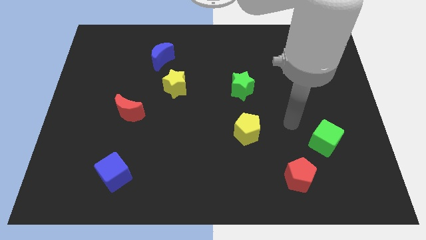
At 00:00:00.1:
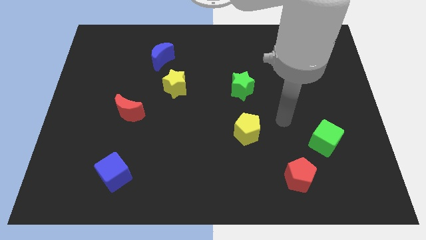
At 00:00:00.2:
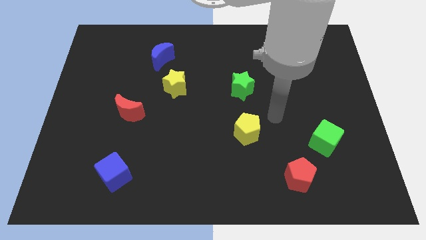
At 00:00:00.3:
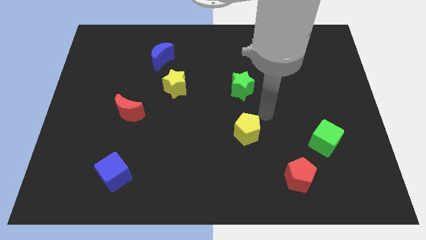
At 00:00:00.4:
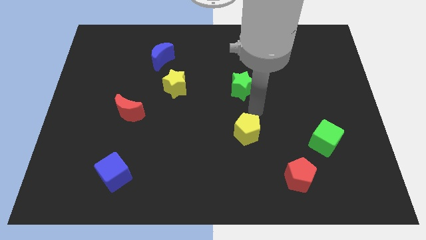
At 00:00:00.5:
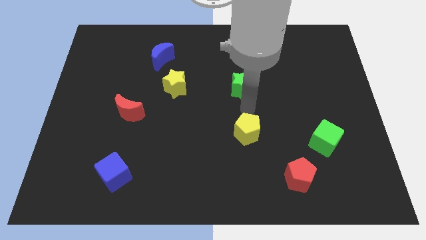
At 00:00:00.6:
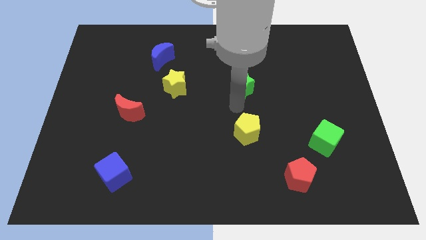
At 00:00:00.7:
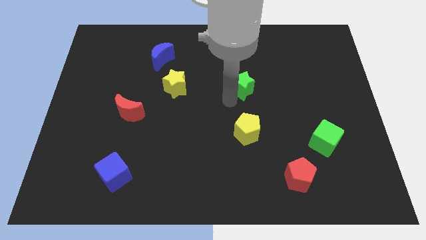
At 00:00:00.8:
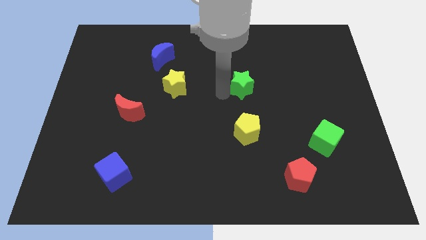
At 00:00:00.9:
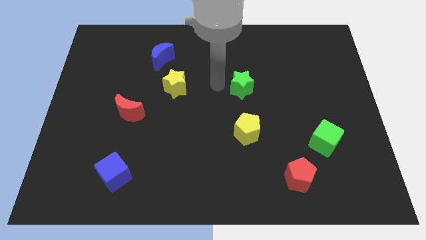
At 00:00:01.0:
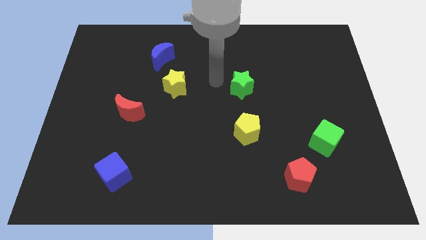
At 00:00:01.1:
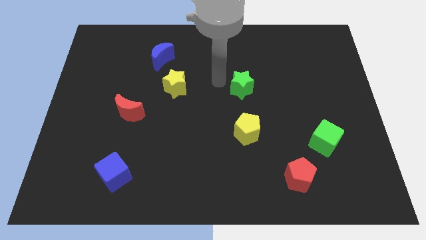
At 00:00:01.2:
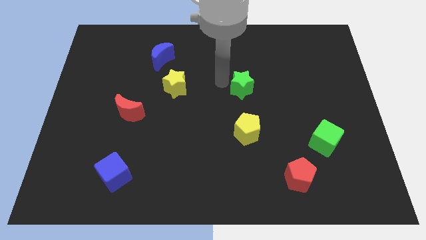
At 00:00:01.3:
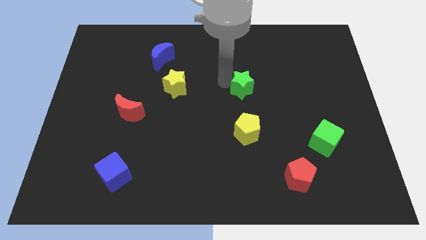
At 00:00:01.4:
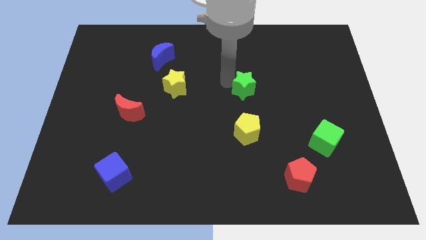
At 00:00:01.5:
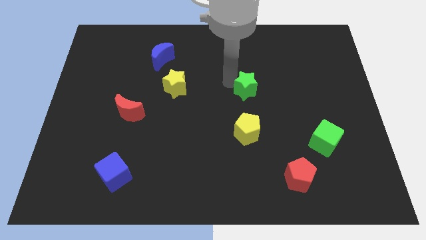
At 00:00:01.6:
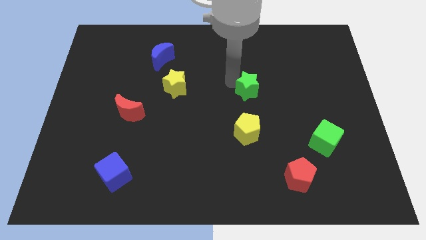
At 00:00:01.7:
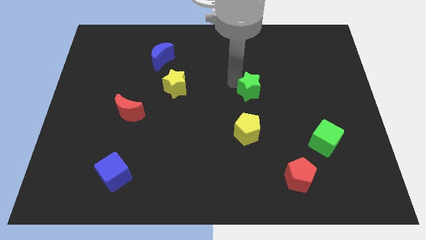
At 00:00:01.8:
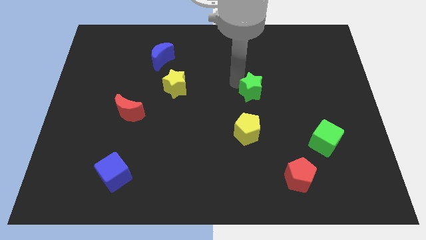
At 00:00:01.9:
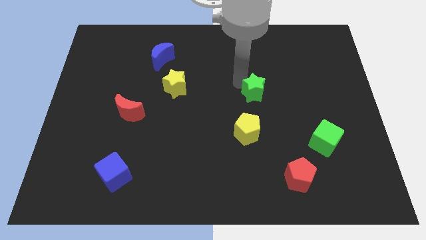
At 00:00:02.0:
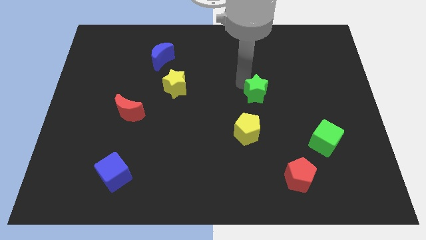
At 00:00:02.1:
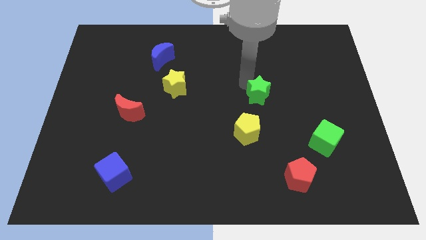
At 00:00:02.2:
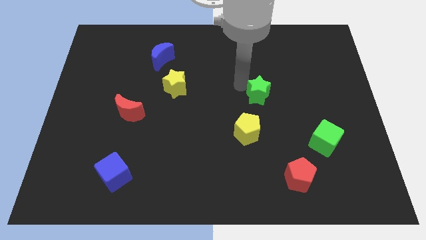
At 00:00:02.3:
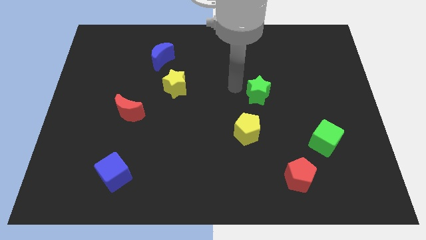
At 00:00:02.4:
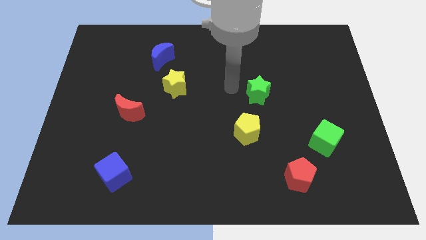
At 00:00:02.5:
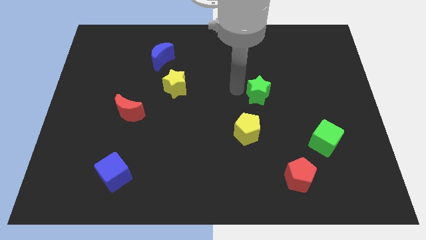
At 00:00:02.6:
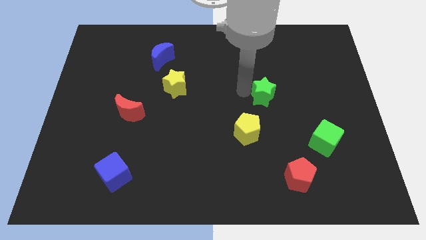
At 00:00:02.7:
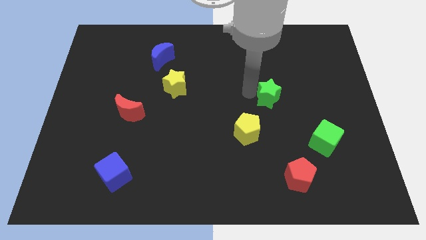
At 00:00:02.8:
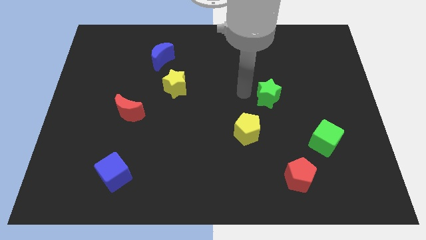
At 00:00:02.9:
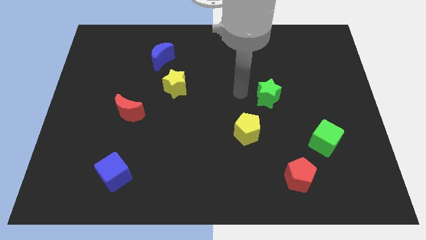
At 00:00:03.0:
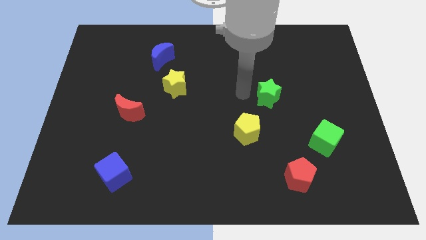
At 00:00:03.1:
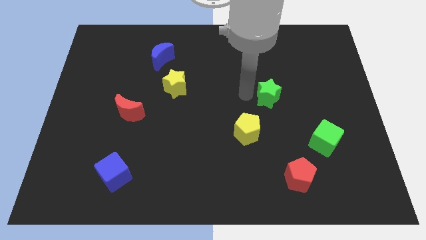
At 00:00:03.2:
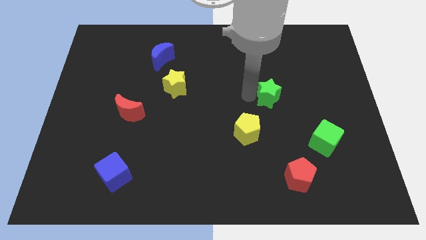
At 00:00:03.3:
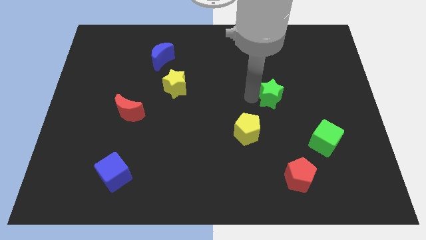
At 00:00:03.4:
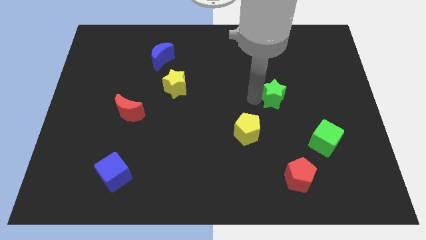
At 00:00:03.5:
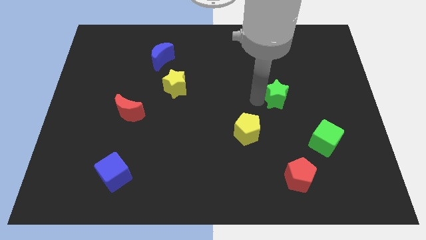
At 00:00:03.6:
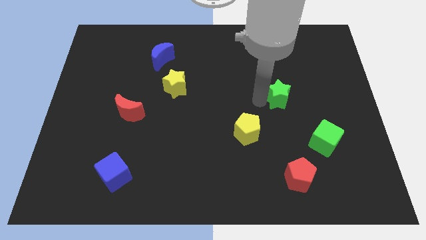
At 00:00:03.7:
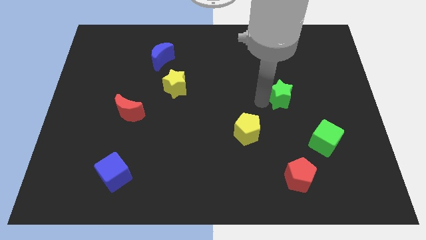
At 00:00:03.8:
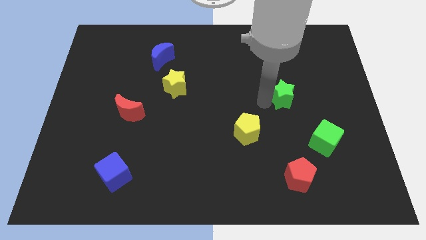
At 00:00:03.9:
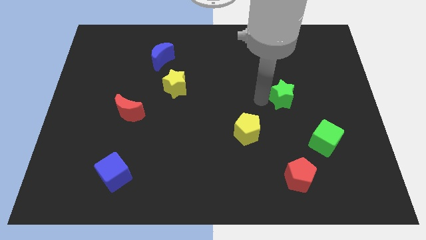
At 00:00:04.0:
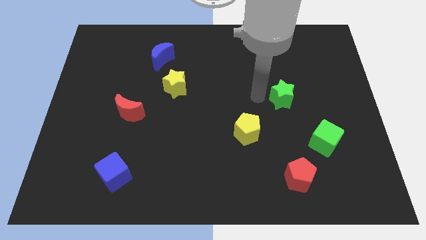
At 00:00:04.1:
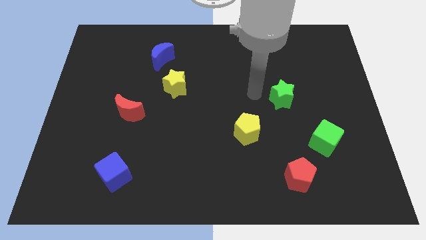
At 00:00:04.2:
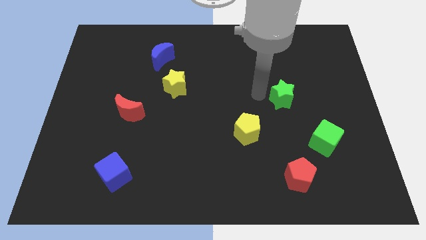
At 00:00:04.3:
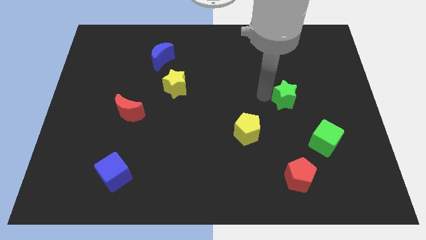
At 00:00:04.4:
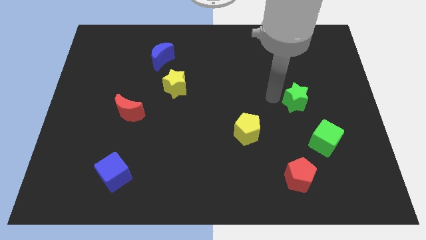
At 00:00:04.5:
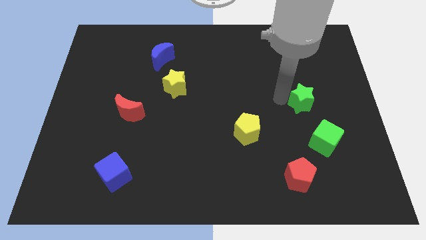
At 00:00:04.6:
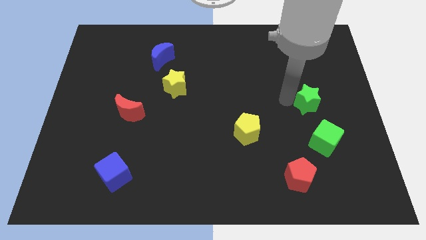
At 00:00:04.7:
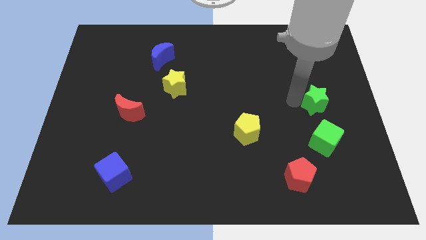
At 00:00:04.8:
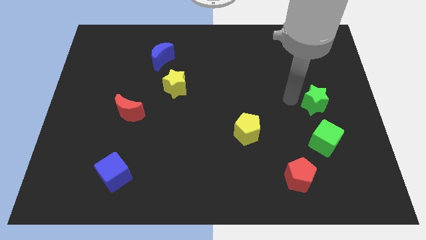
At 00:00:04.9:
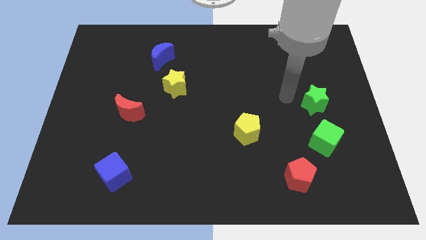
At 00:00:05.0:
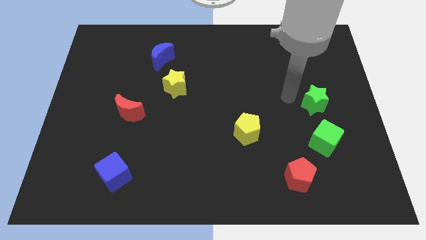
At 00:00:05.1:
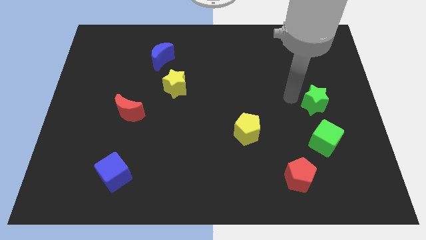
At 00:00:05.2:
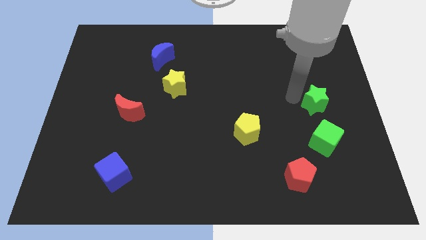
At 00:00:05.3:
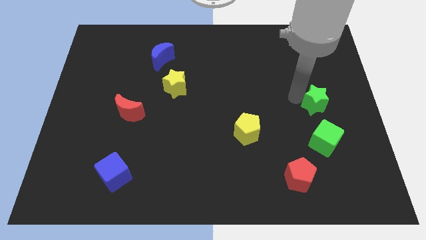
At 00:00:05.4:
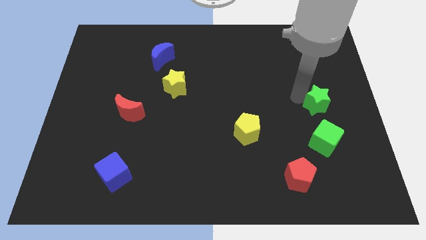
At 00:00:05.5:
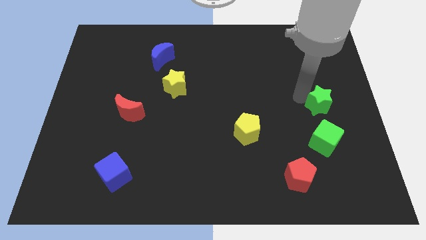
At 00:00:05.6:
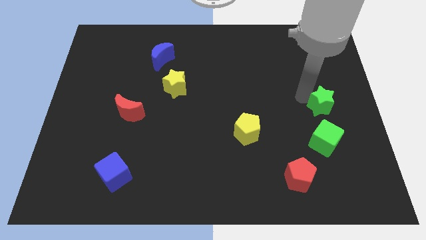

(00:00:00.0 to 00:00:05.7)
move the green star to the right side of the board

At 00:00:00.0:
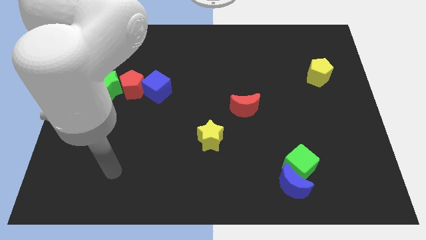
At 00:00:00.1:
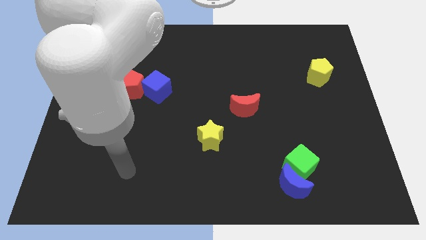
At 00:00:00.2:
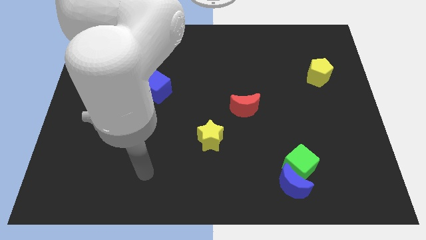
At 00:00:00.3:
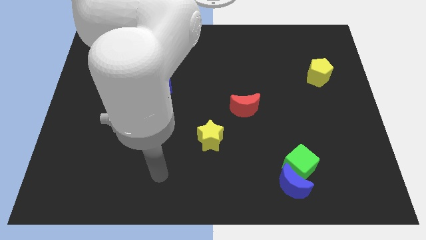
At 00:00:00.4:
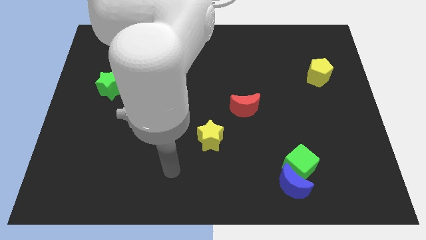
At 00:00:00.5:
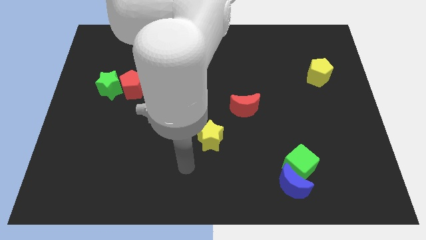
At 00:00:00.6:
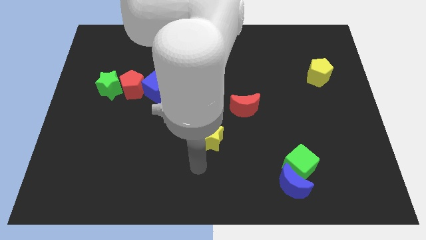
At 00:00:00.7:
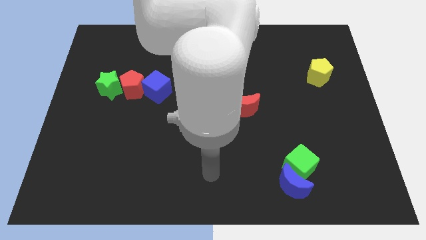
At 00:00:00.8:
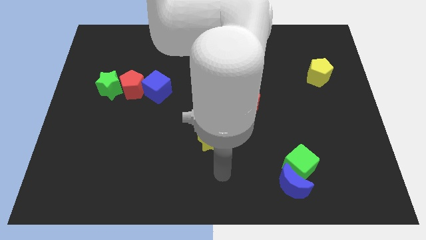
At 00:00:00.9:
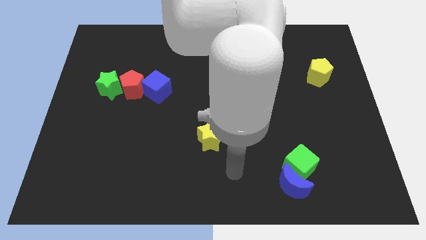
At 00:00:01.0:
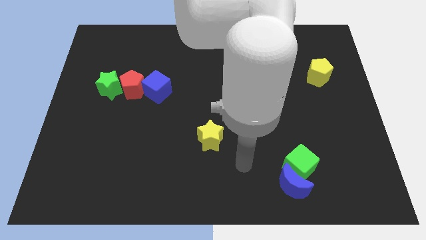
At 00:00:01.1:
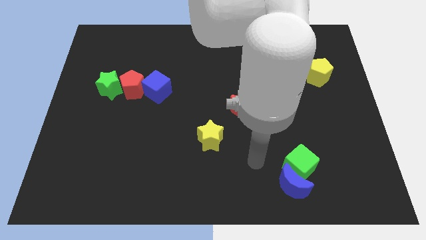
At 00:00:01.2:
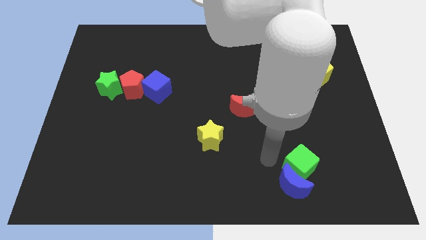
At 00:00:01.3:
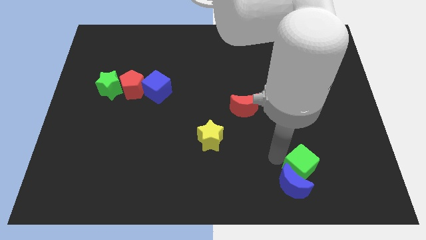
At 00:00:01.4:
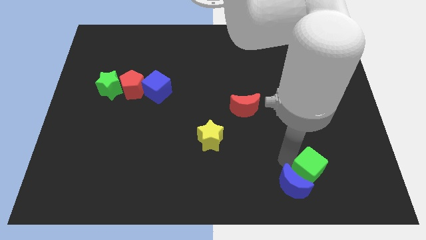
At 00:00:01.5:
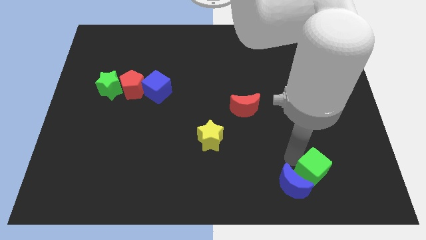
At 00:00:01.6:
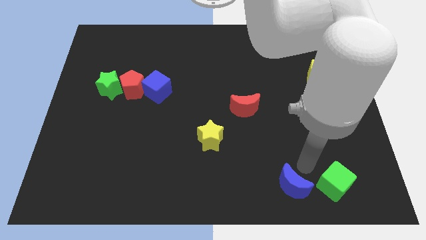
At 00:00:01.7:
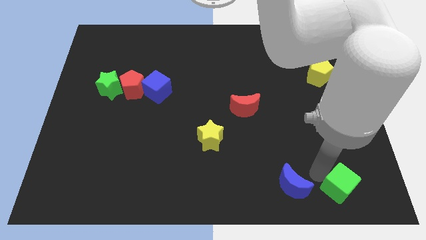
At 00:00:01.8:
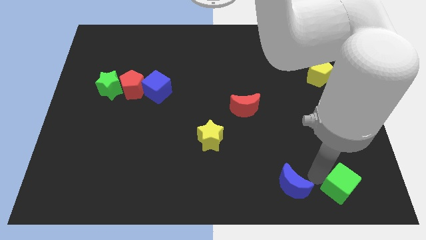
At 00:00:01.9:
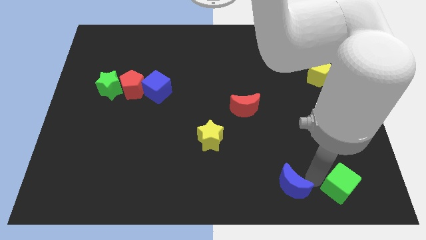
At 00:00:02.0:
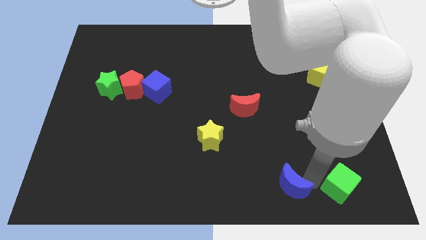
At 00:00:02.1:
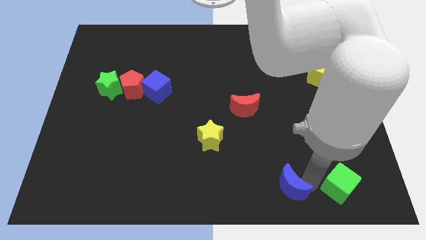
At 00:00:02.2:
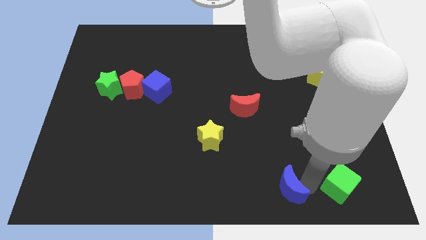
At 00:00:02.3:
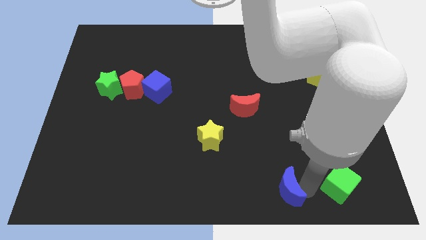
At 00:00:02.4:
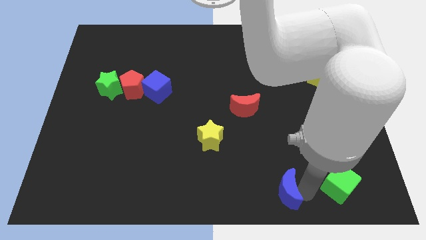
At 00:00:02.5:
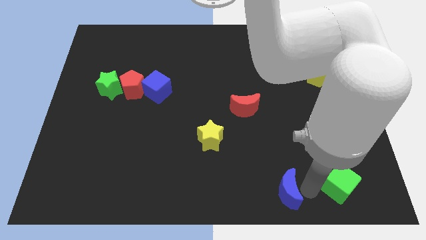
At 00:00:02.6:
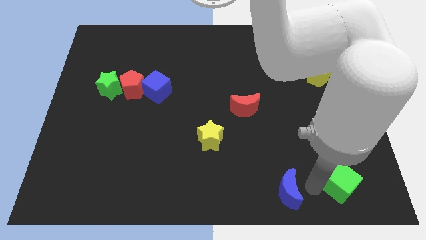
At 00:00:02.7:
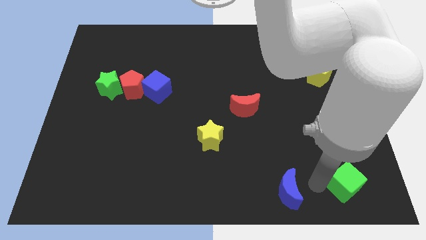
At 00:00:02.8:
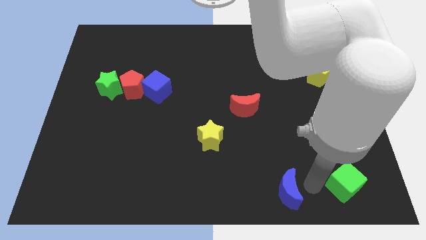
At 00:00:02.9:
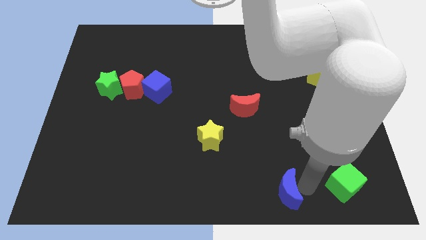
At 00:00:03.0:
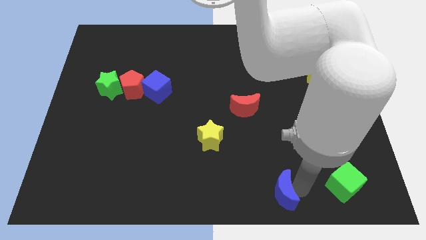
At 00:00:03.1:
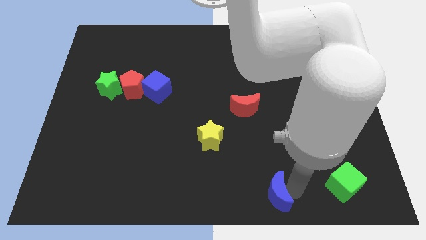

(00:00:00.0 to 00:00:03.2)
move the blue moon to the bottom
